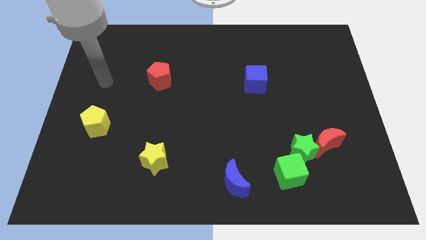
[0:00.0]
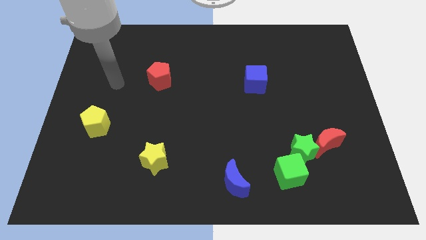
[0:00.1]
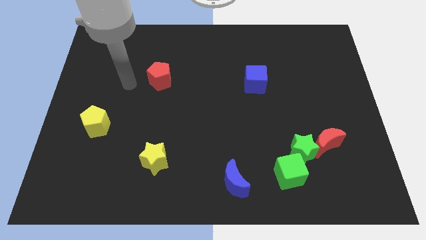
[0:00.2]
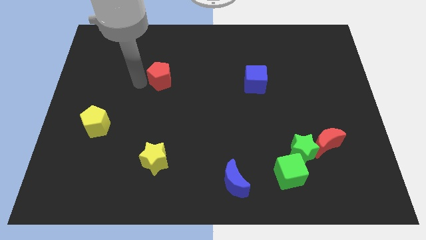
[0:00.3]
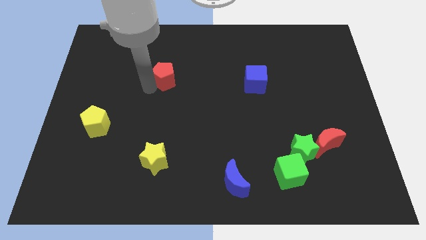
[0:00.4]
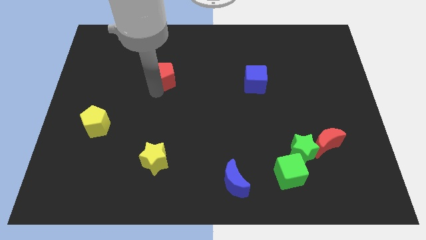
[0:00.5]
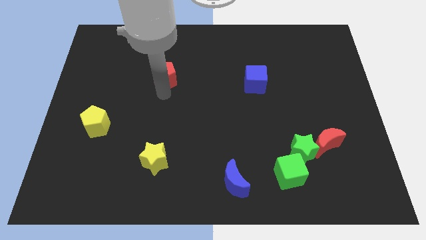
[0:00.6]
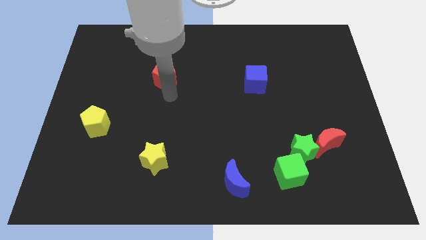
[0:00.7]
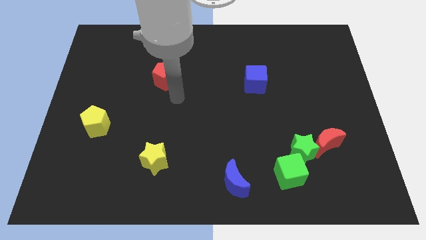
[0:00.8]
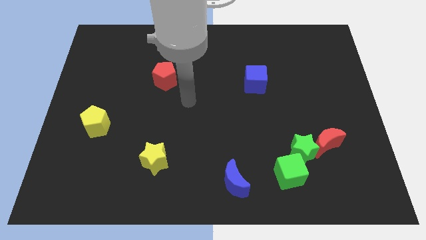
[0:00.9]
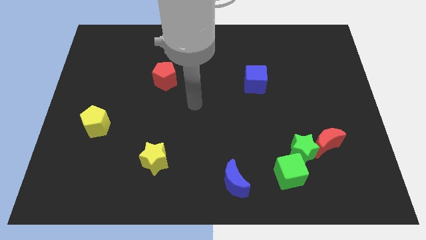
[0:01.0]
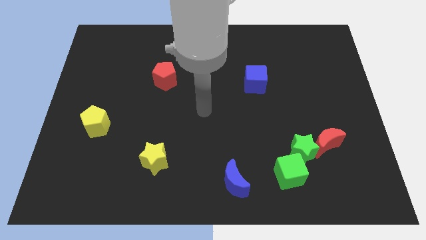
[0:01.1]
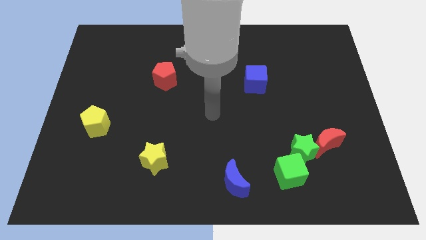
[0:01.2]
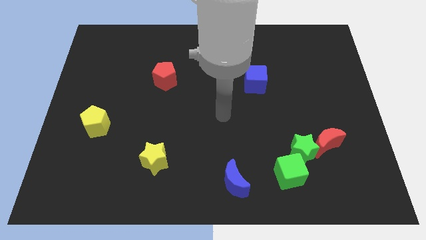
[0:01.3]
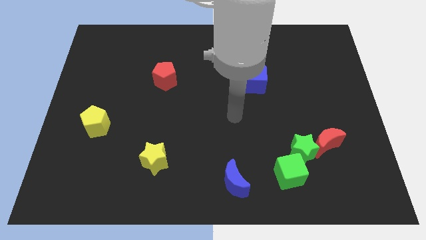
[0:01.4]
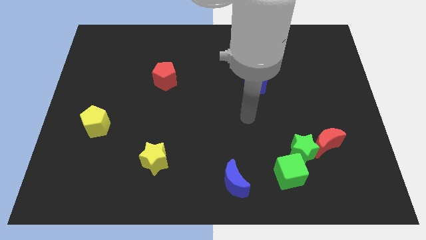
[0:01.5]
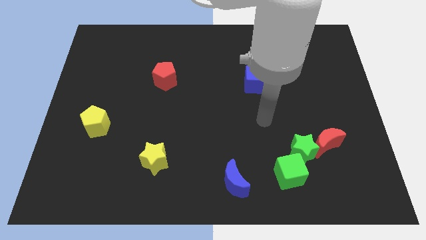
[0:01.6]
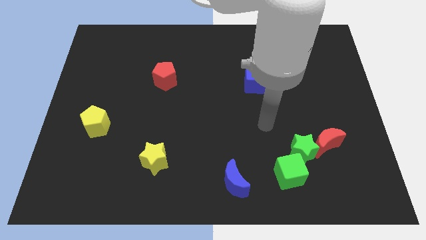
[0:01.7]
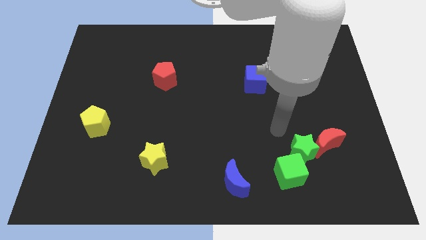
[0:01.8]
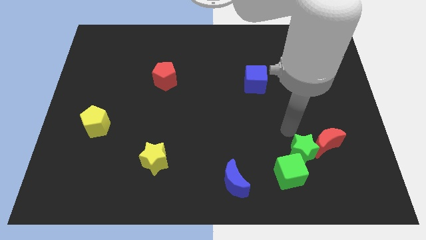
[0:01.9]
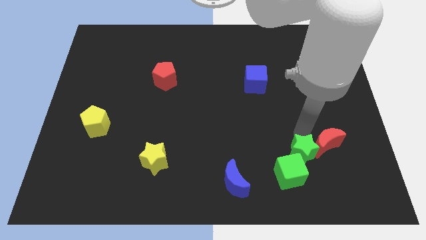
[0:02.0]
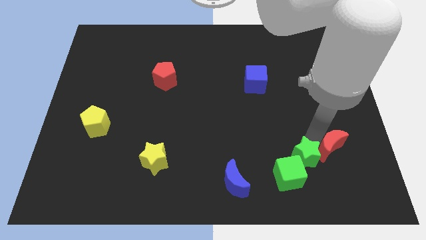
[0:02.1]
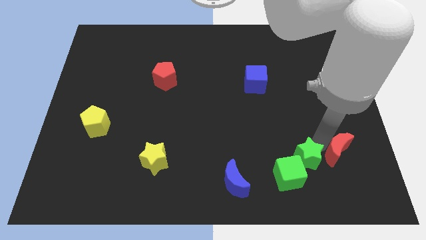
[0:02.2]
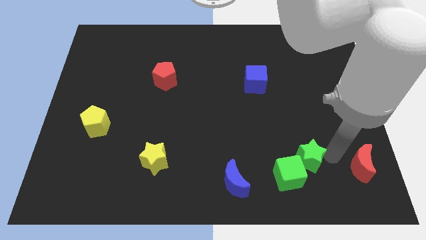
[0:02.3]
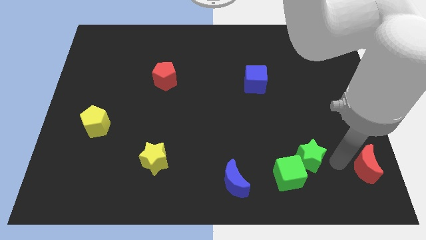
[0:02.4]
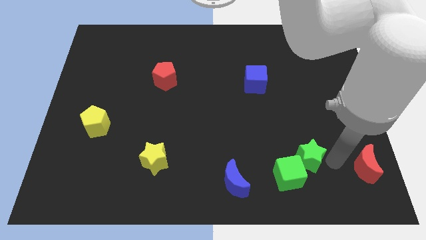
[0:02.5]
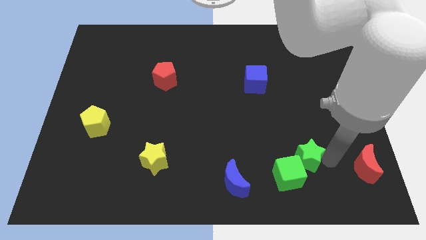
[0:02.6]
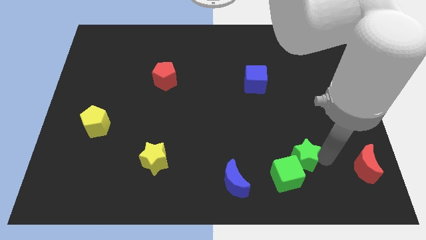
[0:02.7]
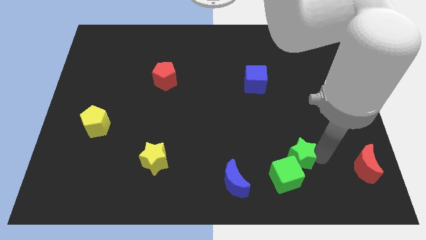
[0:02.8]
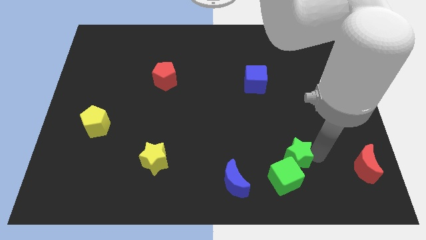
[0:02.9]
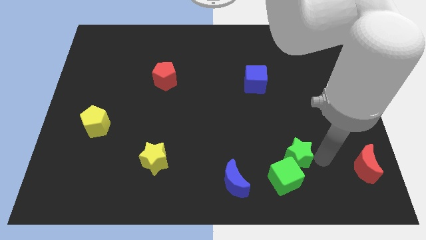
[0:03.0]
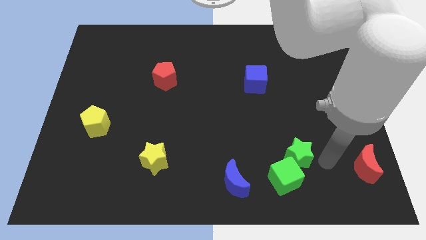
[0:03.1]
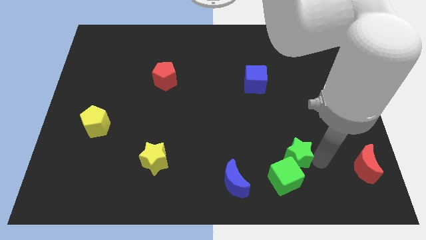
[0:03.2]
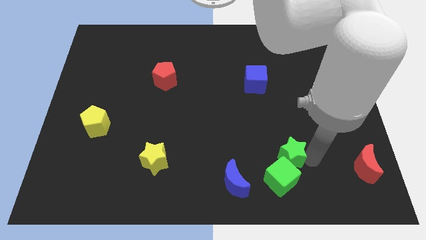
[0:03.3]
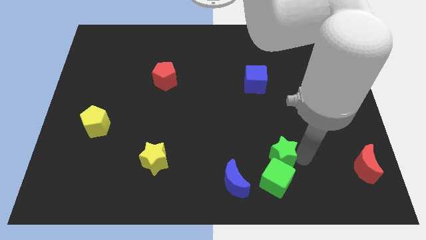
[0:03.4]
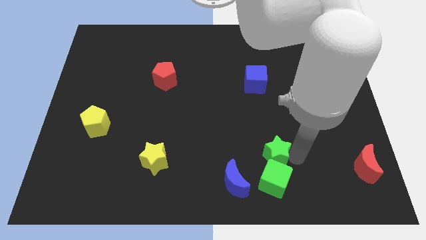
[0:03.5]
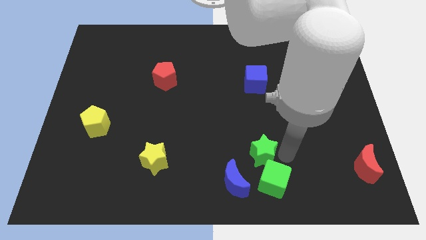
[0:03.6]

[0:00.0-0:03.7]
slightly move the green star left

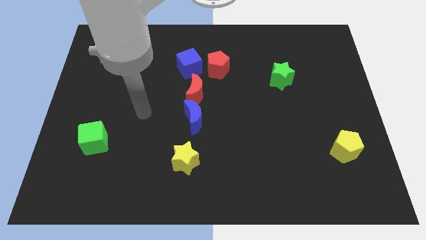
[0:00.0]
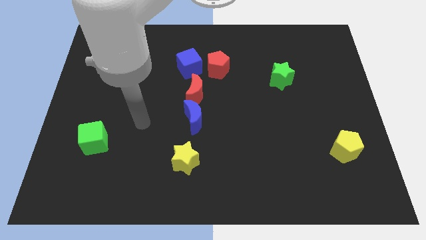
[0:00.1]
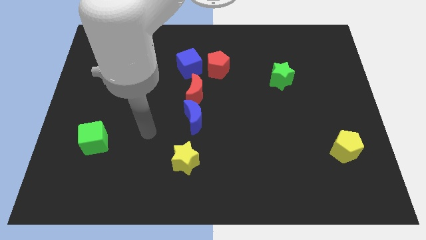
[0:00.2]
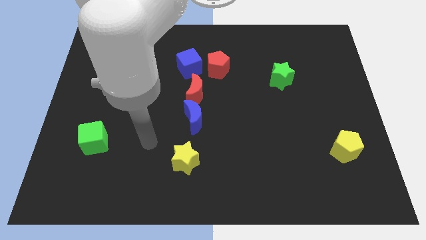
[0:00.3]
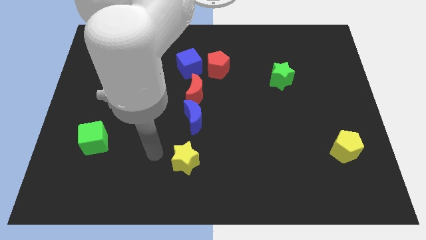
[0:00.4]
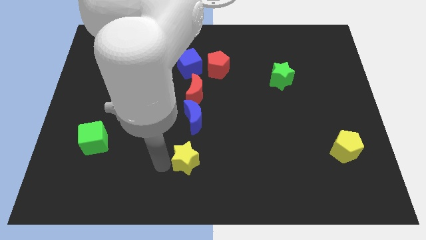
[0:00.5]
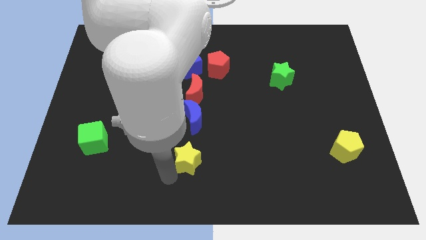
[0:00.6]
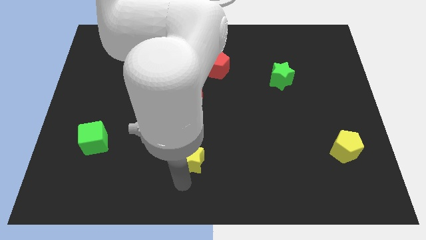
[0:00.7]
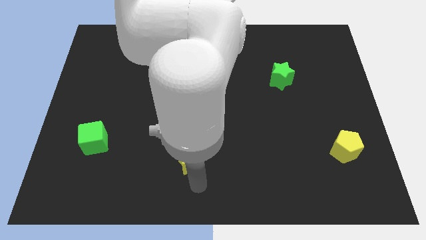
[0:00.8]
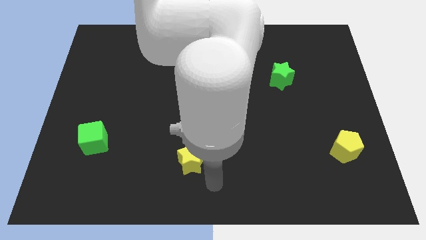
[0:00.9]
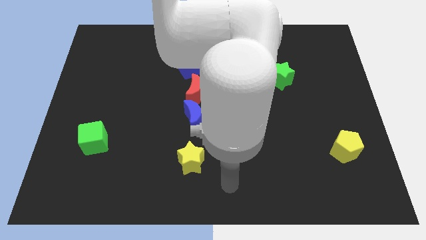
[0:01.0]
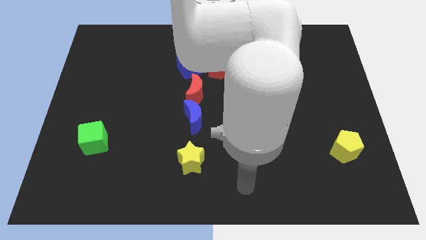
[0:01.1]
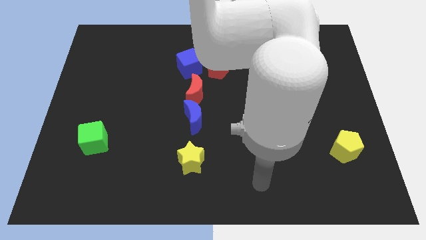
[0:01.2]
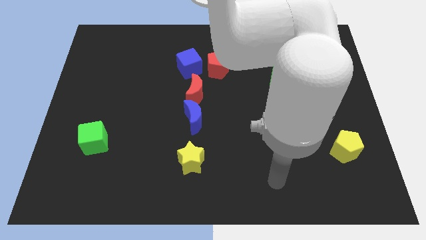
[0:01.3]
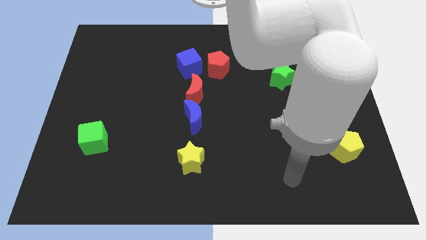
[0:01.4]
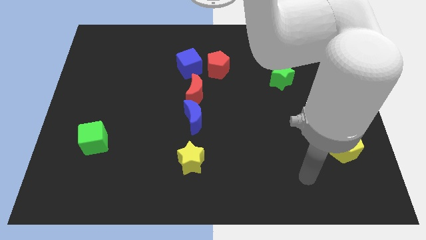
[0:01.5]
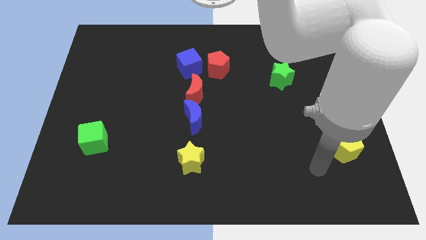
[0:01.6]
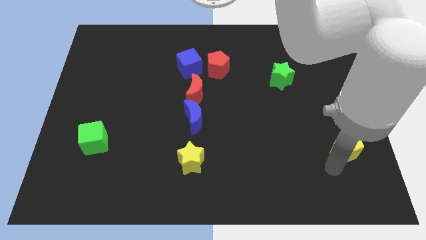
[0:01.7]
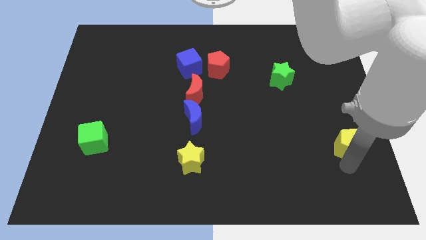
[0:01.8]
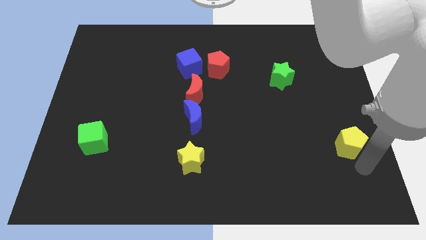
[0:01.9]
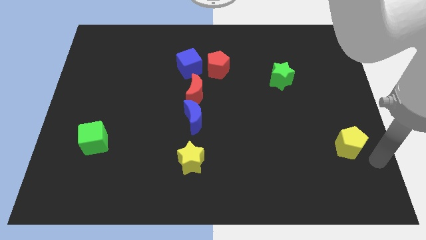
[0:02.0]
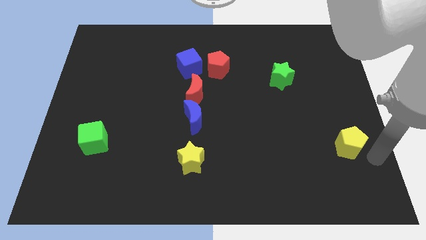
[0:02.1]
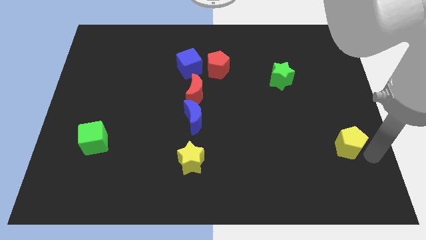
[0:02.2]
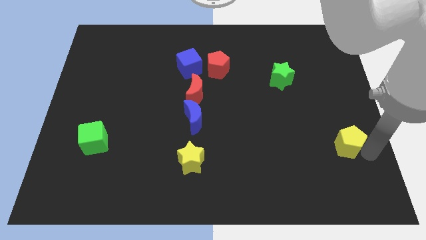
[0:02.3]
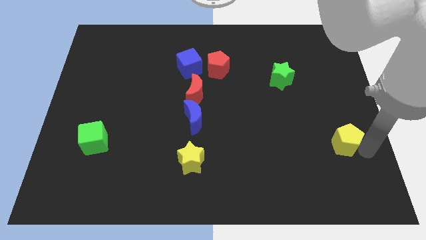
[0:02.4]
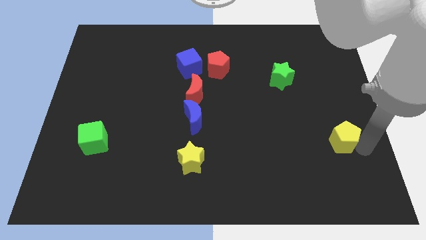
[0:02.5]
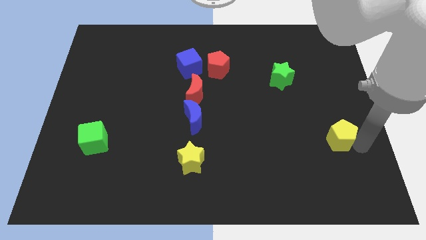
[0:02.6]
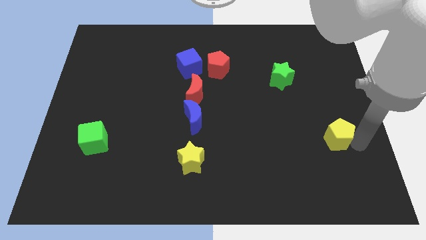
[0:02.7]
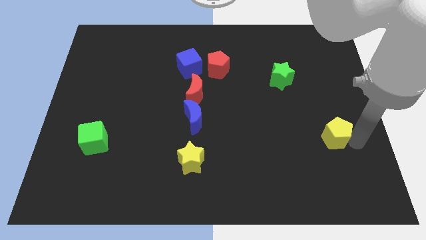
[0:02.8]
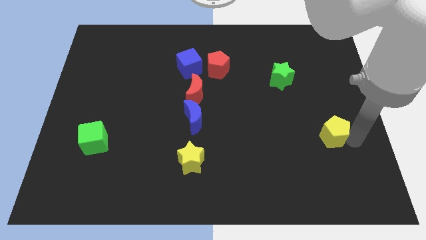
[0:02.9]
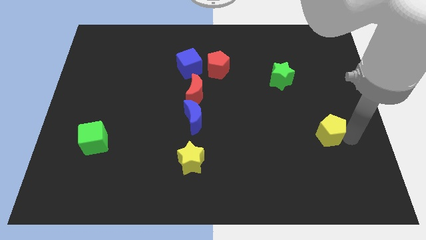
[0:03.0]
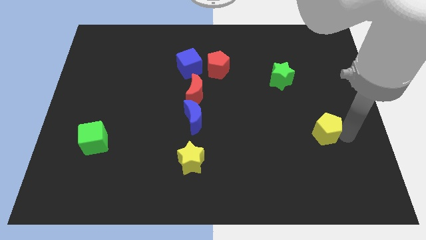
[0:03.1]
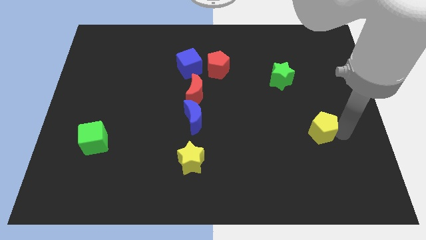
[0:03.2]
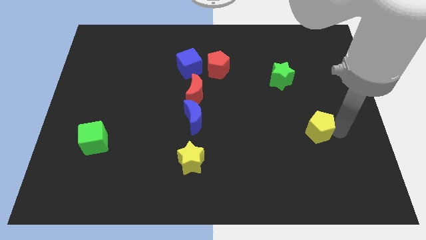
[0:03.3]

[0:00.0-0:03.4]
push the yellow pentagon diagonally upwards and left slightly

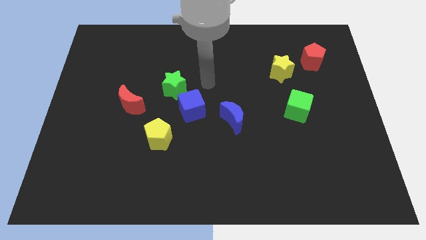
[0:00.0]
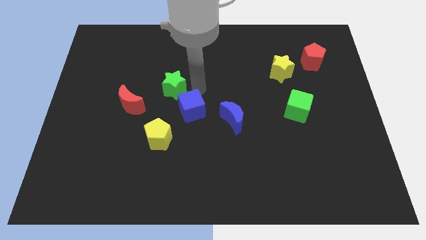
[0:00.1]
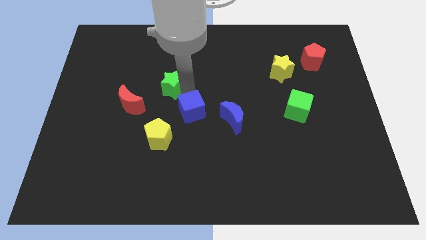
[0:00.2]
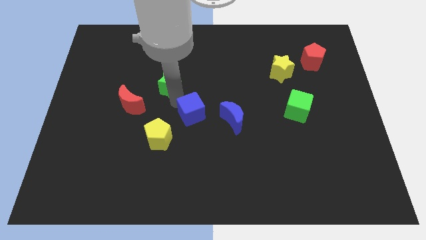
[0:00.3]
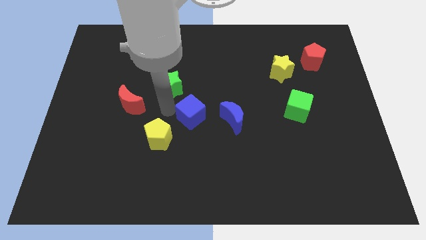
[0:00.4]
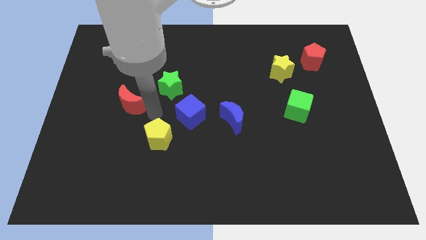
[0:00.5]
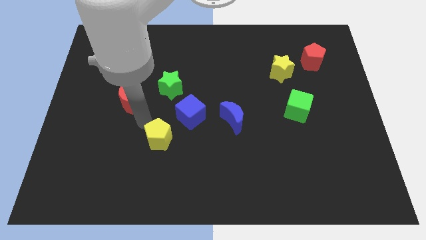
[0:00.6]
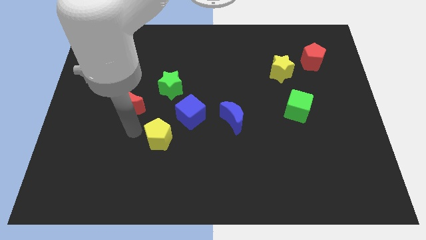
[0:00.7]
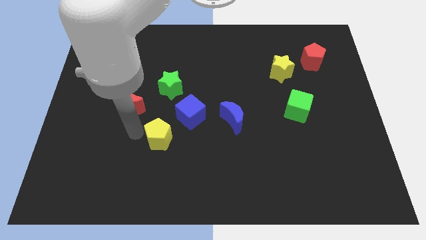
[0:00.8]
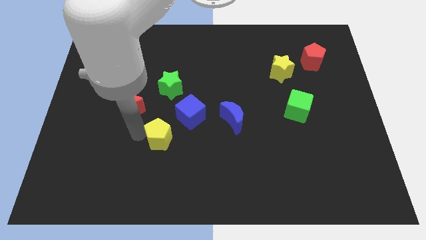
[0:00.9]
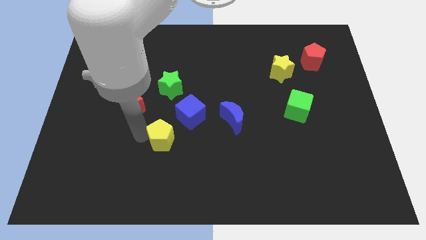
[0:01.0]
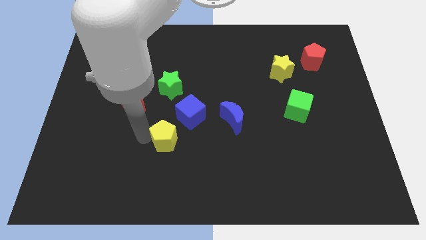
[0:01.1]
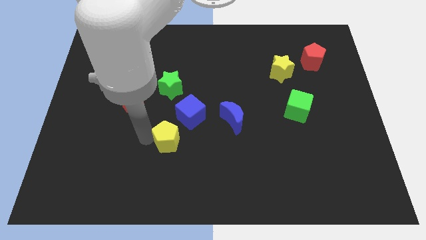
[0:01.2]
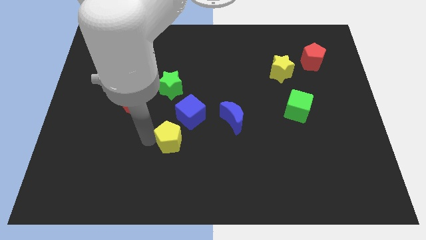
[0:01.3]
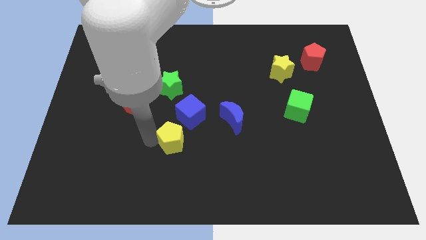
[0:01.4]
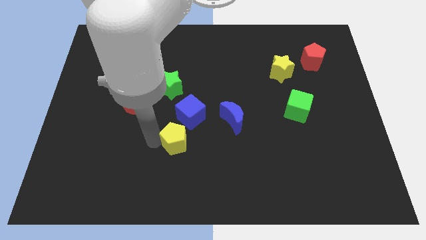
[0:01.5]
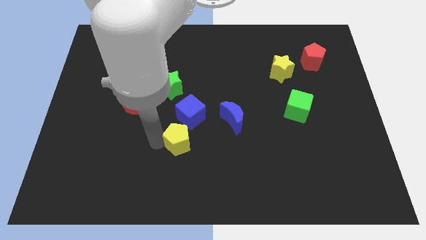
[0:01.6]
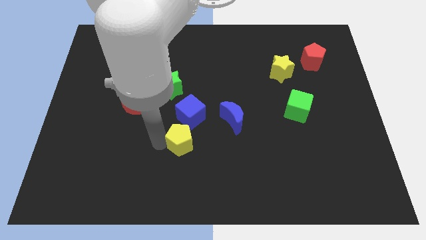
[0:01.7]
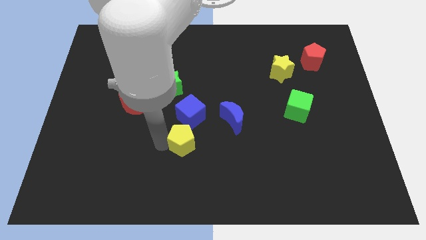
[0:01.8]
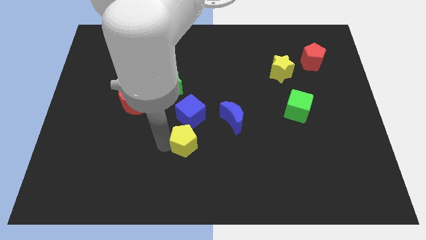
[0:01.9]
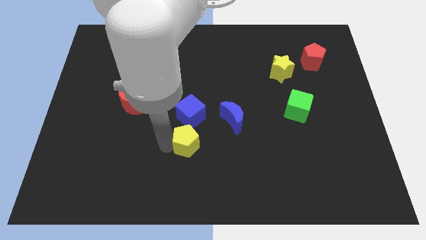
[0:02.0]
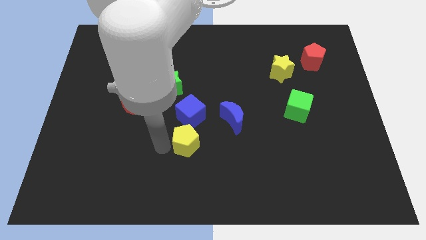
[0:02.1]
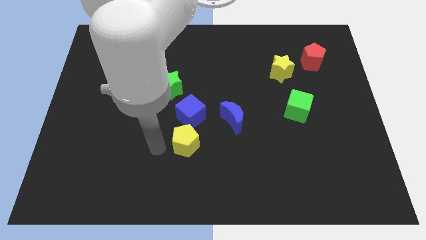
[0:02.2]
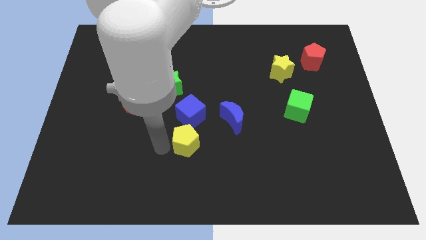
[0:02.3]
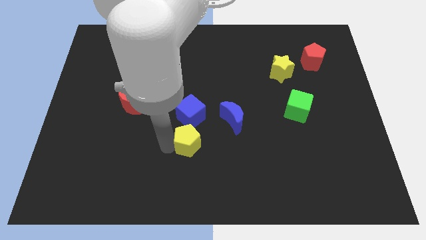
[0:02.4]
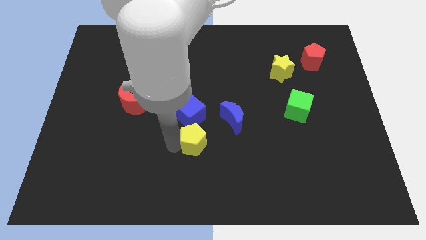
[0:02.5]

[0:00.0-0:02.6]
slide the yellow pentagon somewhat right
